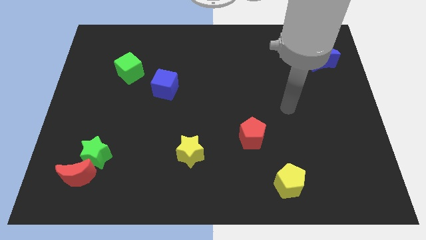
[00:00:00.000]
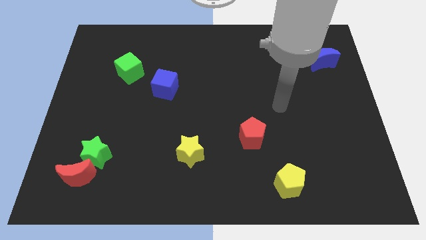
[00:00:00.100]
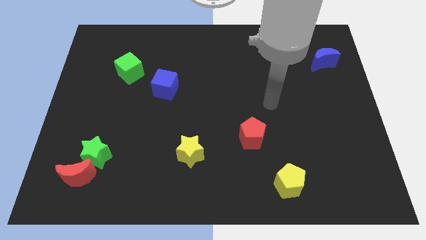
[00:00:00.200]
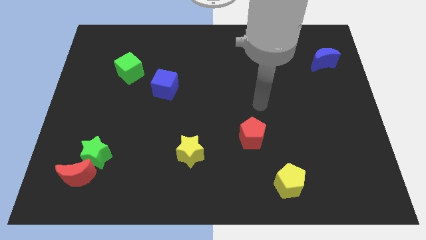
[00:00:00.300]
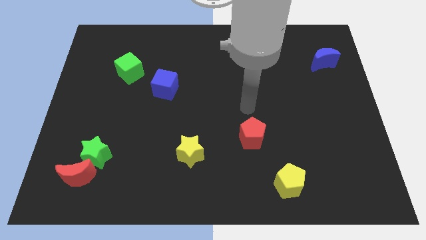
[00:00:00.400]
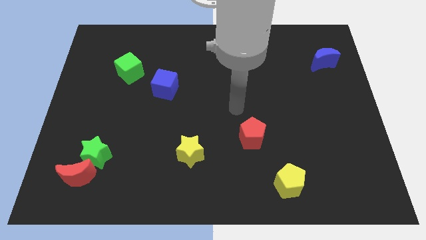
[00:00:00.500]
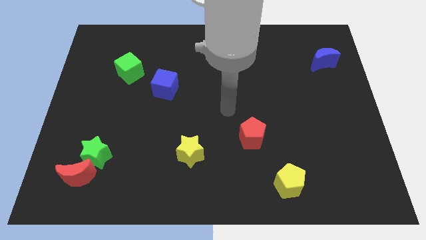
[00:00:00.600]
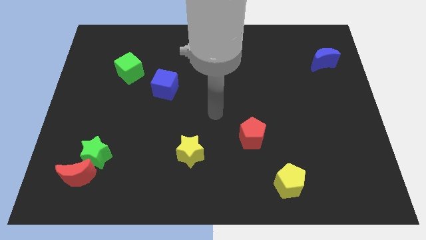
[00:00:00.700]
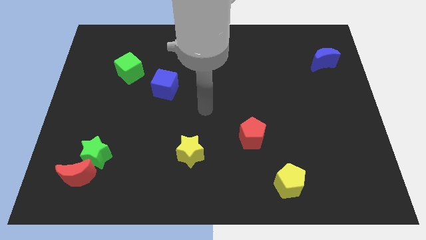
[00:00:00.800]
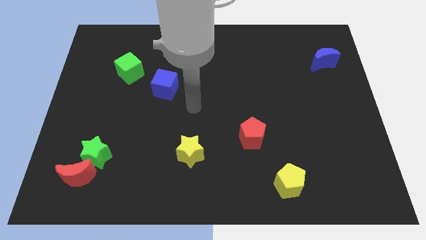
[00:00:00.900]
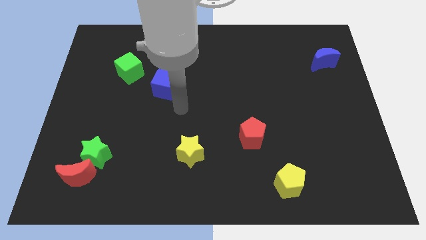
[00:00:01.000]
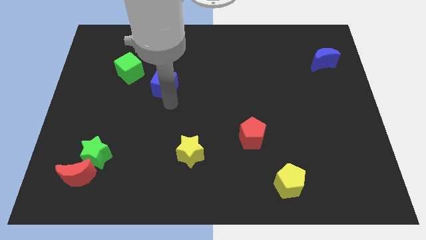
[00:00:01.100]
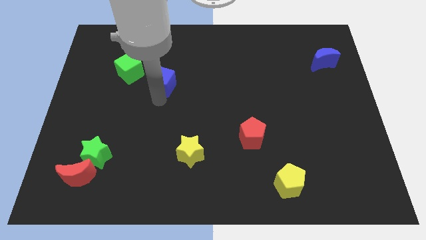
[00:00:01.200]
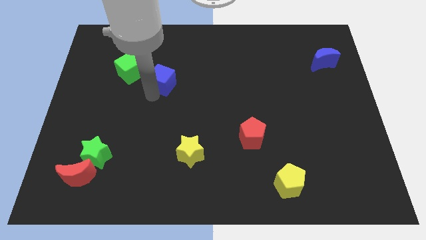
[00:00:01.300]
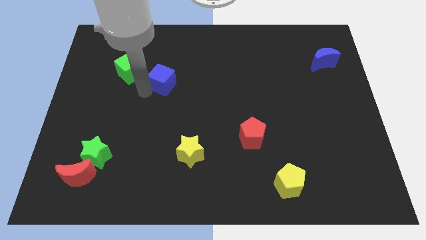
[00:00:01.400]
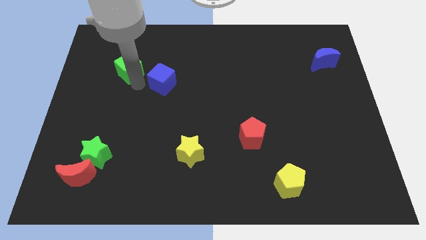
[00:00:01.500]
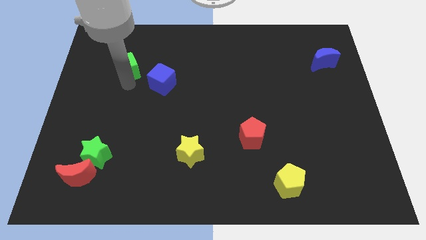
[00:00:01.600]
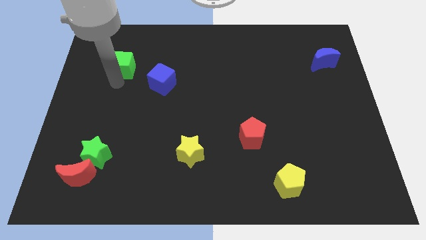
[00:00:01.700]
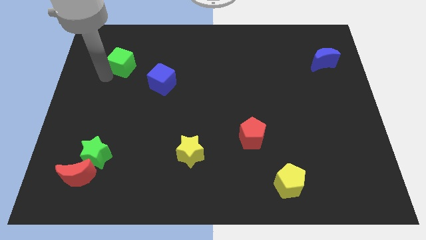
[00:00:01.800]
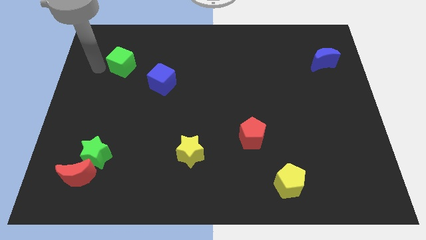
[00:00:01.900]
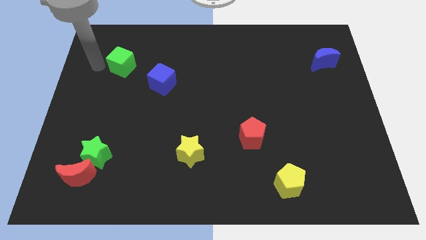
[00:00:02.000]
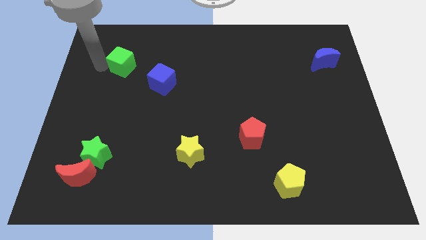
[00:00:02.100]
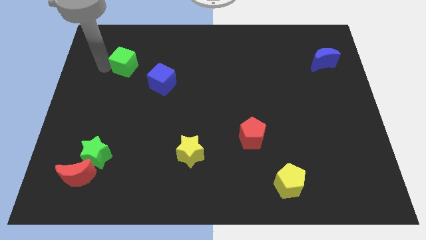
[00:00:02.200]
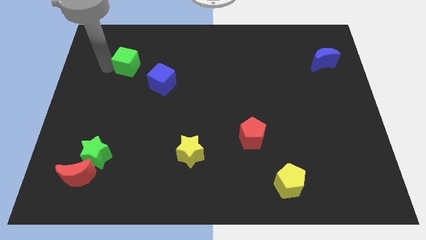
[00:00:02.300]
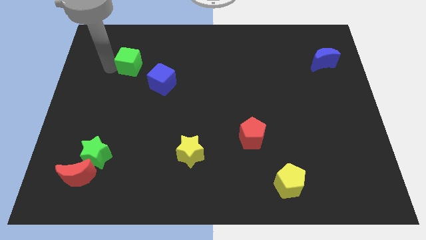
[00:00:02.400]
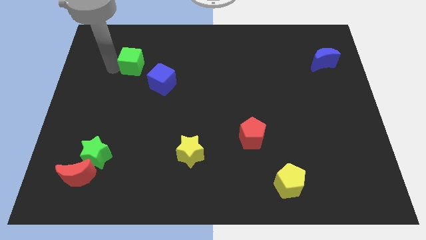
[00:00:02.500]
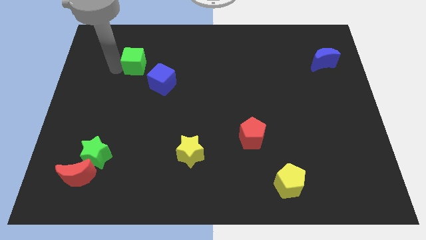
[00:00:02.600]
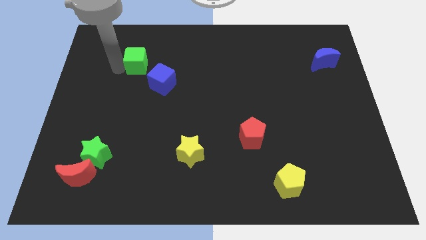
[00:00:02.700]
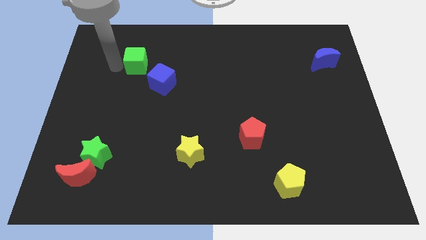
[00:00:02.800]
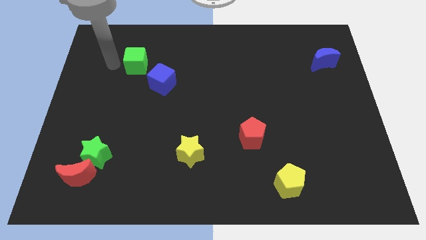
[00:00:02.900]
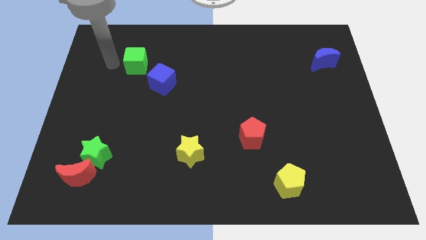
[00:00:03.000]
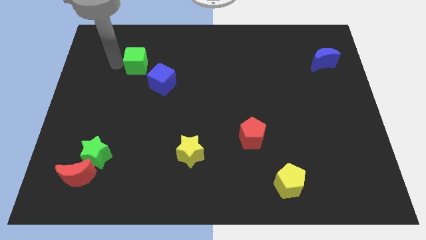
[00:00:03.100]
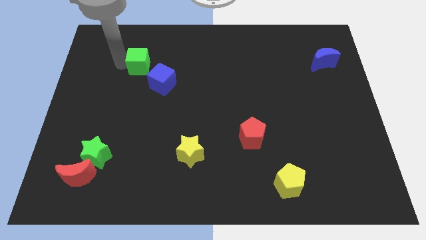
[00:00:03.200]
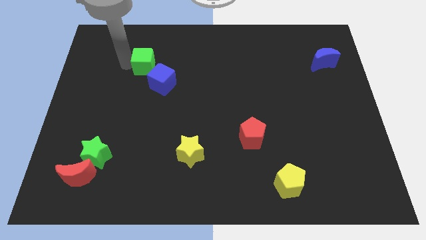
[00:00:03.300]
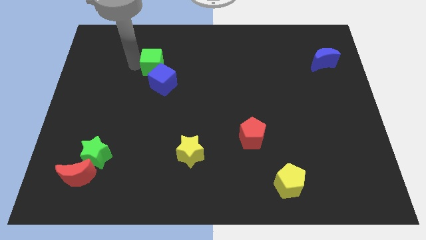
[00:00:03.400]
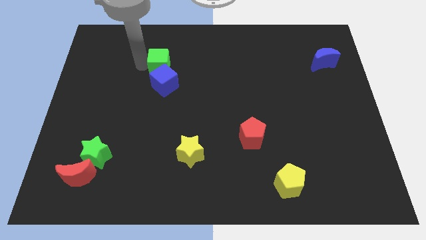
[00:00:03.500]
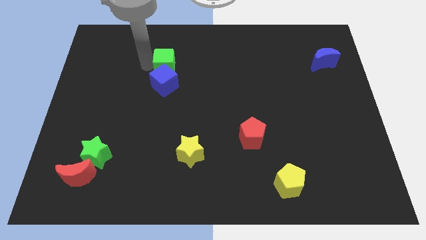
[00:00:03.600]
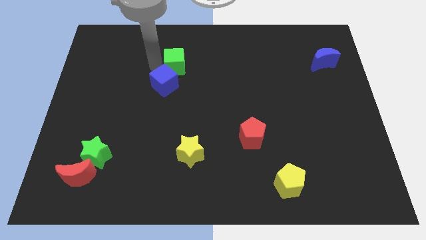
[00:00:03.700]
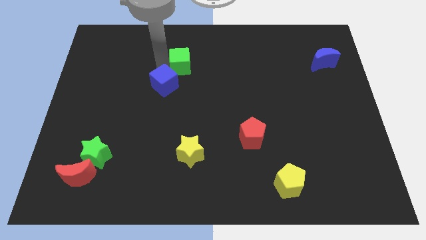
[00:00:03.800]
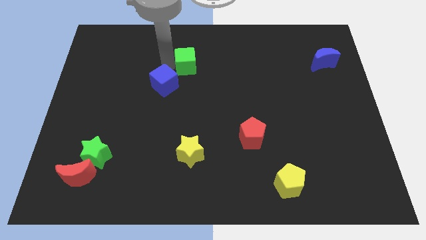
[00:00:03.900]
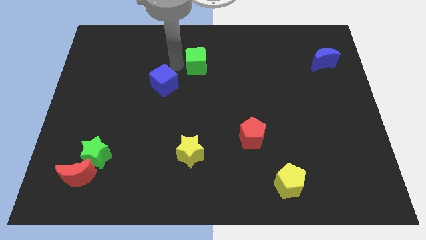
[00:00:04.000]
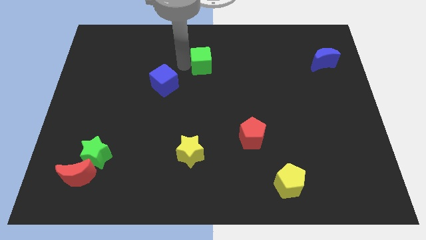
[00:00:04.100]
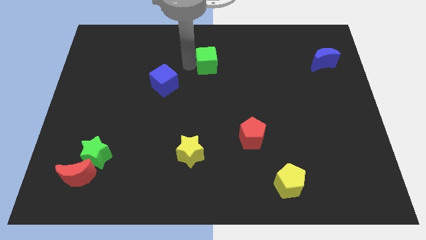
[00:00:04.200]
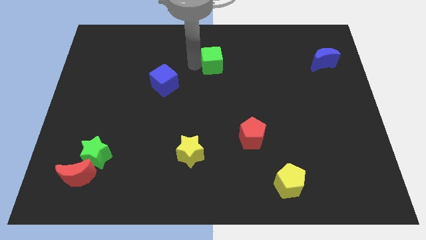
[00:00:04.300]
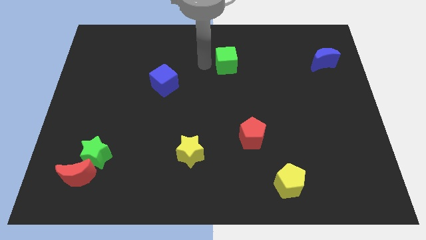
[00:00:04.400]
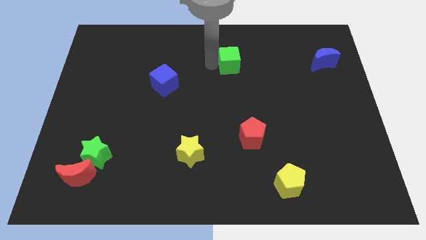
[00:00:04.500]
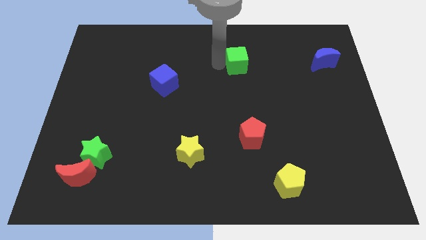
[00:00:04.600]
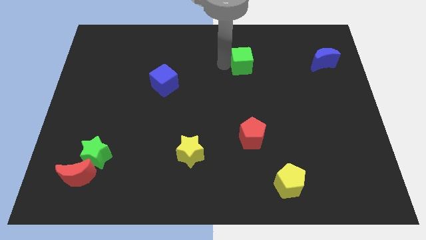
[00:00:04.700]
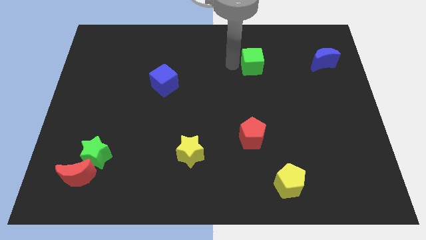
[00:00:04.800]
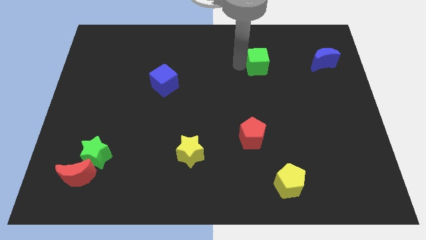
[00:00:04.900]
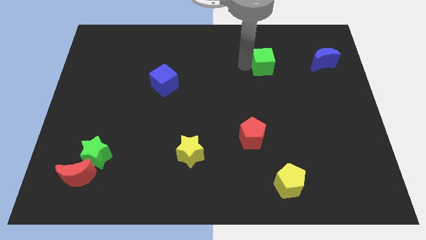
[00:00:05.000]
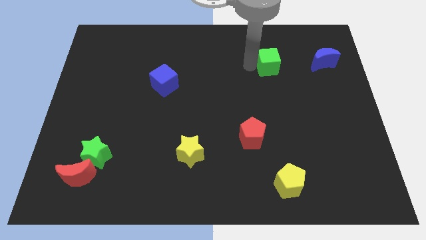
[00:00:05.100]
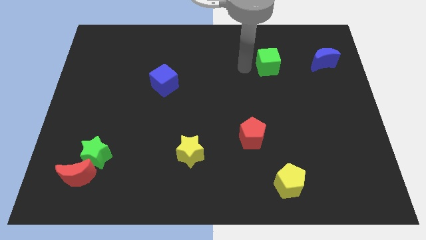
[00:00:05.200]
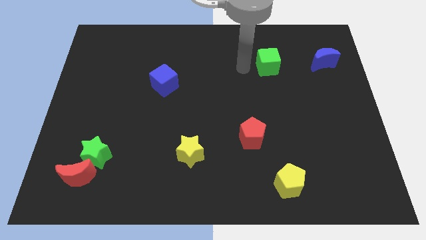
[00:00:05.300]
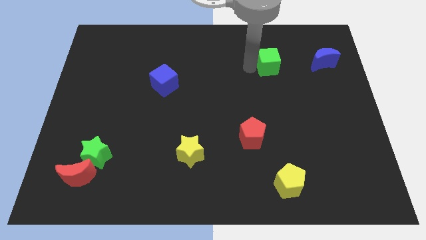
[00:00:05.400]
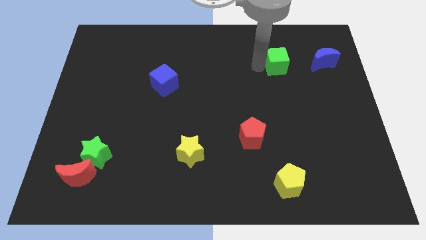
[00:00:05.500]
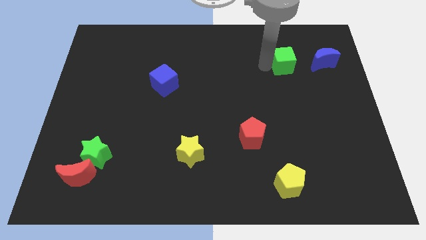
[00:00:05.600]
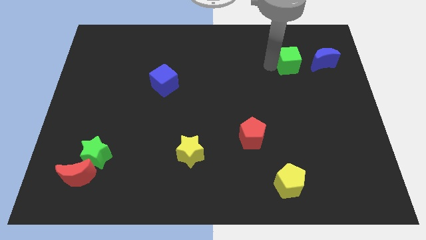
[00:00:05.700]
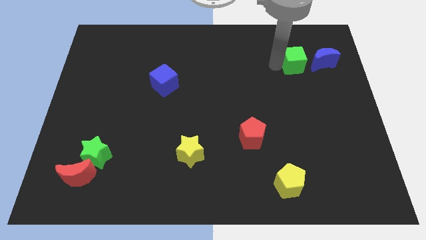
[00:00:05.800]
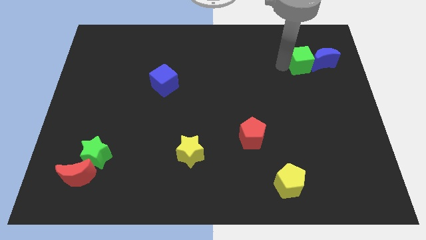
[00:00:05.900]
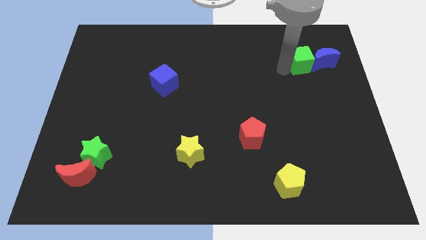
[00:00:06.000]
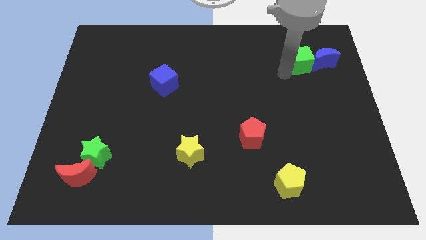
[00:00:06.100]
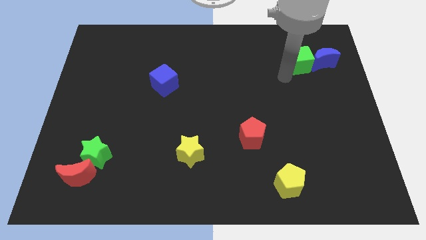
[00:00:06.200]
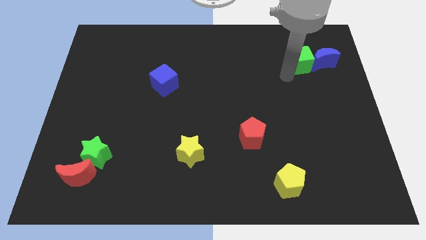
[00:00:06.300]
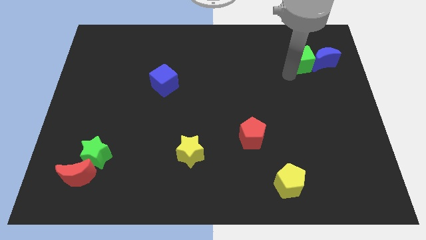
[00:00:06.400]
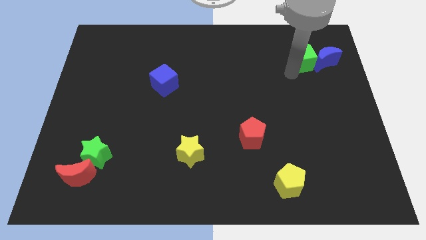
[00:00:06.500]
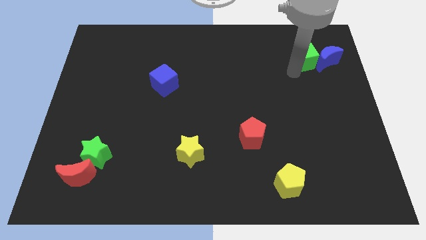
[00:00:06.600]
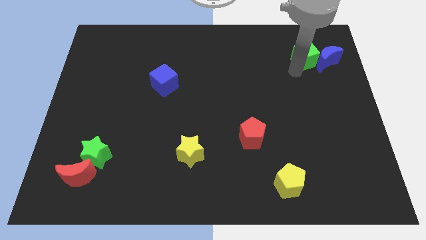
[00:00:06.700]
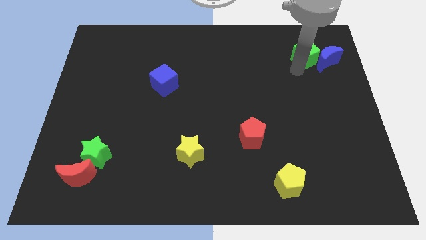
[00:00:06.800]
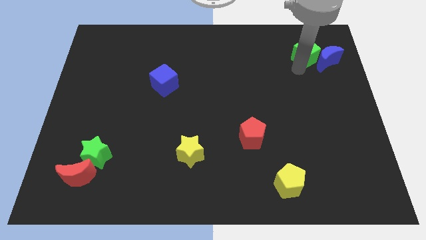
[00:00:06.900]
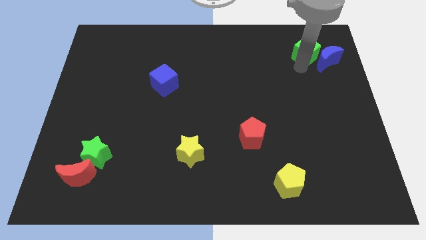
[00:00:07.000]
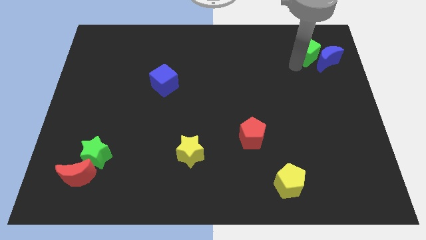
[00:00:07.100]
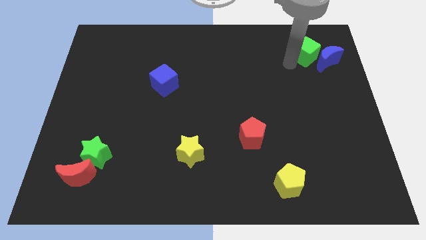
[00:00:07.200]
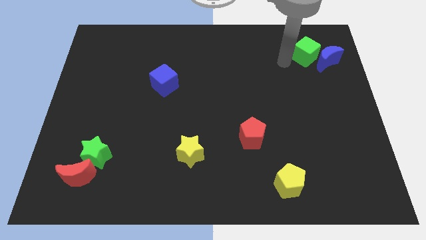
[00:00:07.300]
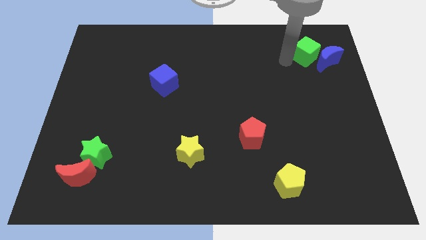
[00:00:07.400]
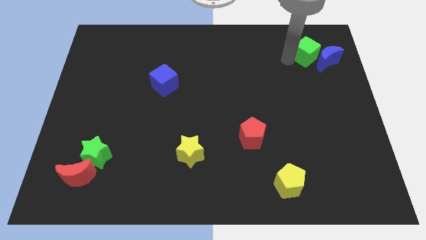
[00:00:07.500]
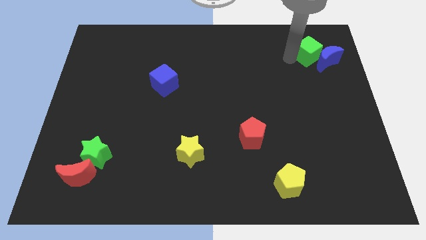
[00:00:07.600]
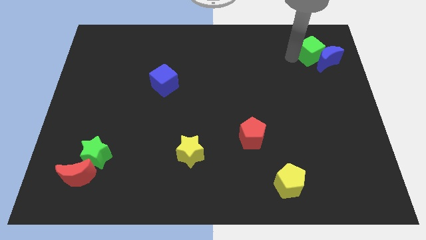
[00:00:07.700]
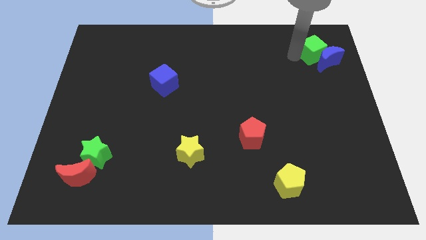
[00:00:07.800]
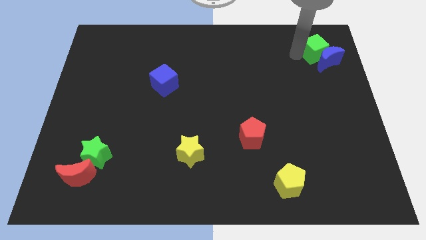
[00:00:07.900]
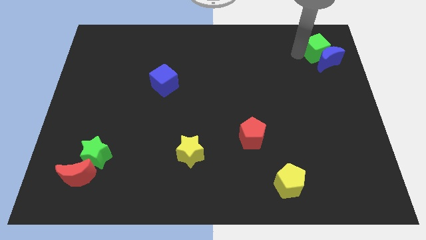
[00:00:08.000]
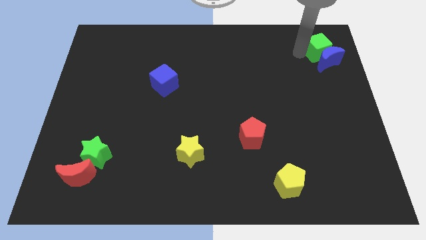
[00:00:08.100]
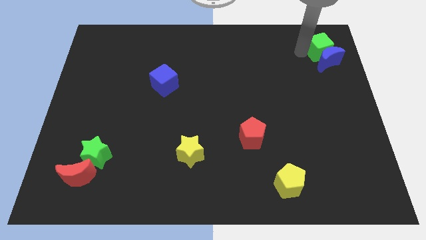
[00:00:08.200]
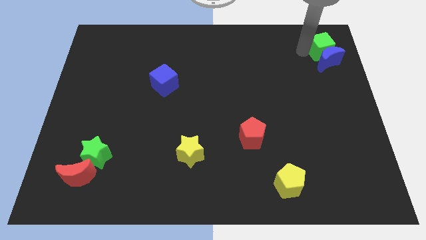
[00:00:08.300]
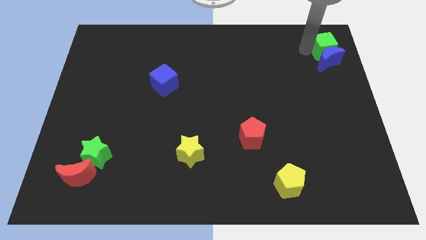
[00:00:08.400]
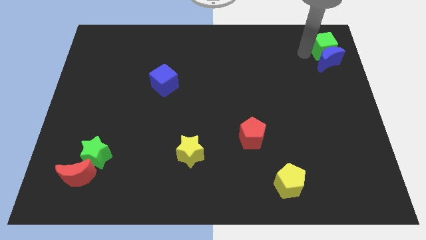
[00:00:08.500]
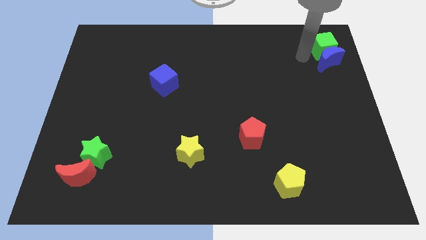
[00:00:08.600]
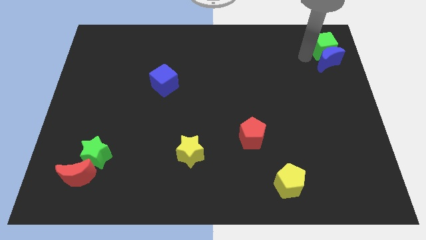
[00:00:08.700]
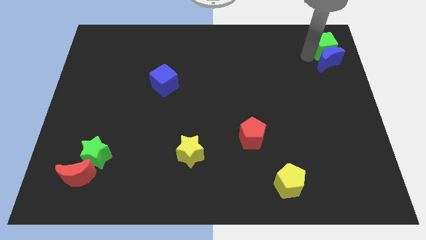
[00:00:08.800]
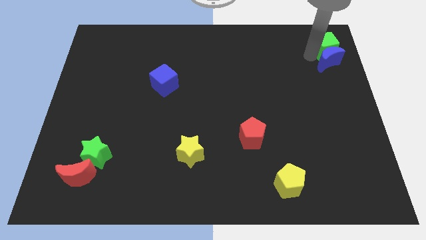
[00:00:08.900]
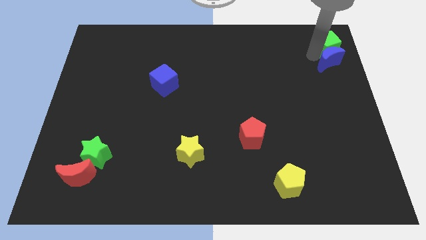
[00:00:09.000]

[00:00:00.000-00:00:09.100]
slide the green cube to the top right corner
